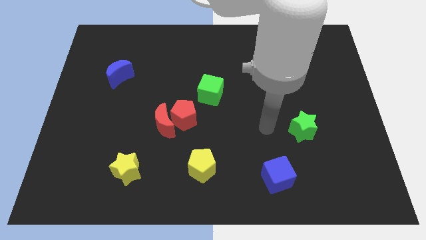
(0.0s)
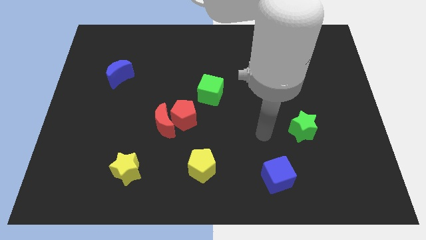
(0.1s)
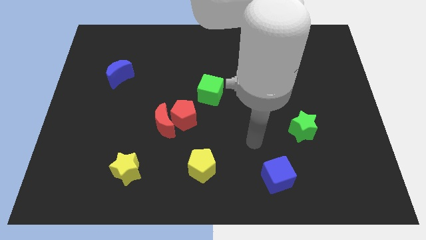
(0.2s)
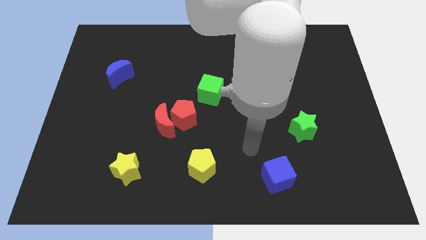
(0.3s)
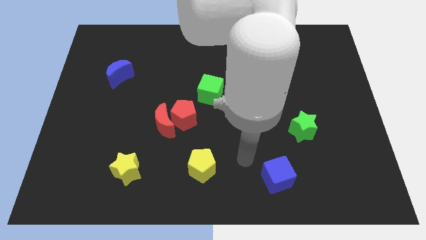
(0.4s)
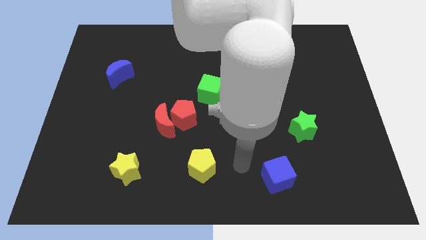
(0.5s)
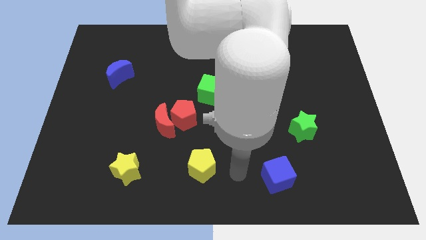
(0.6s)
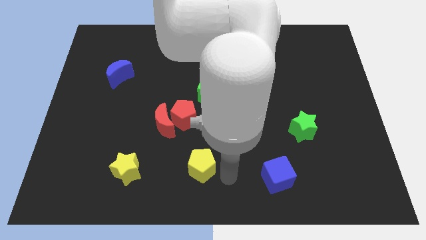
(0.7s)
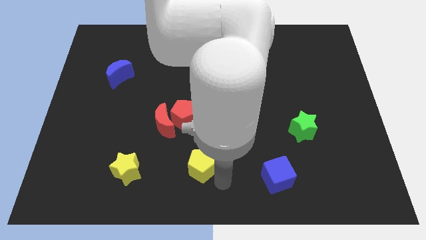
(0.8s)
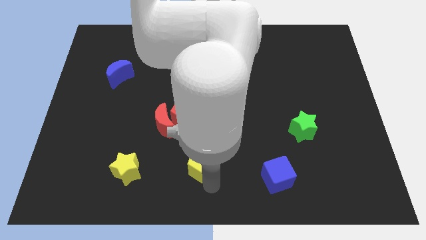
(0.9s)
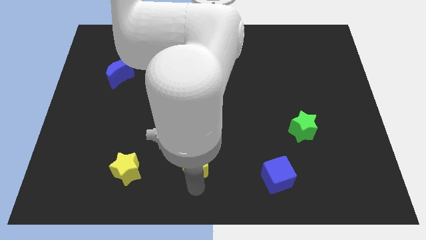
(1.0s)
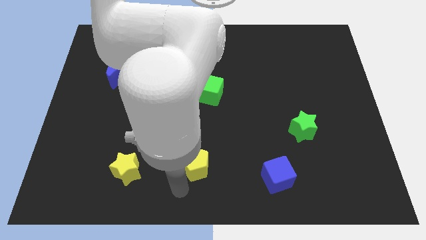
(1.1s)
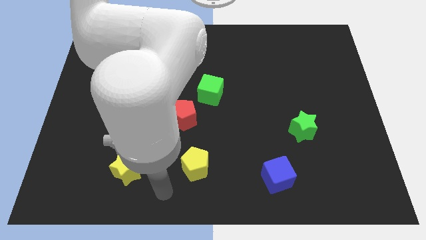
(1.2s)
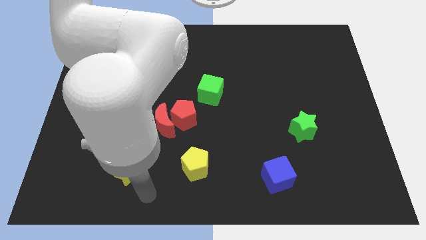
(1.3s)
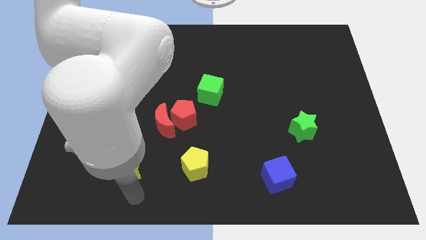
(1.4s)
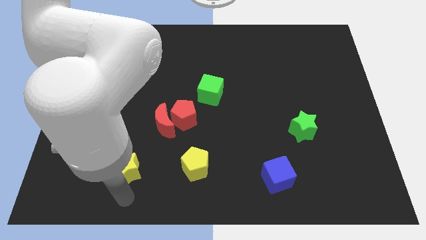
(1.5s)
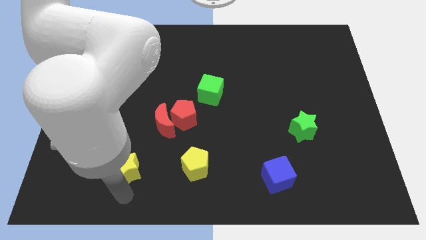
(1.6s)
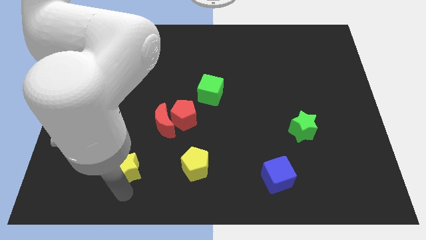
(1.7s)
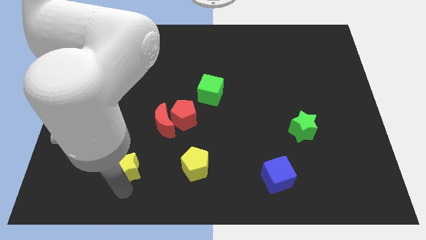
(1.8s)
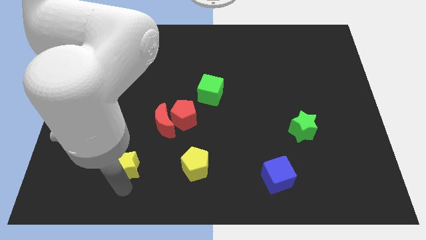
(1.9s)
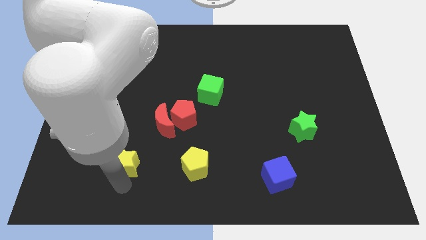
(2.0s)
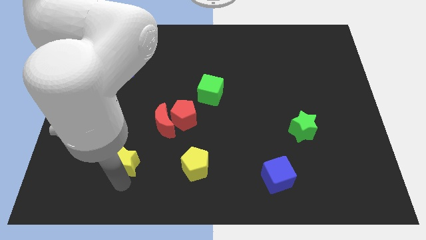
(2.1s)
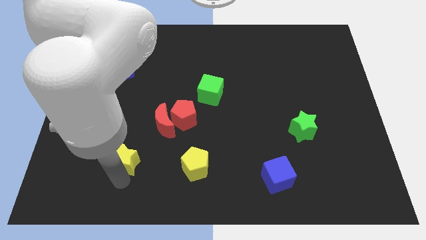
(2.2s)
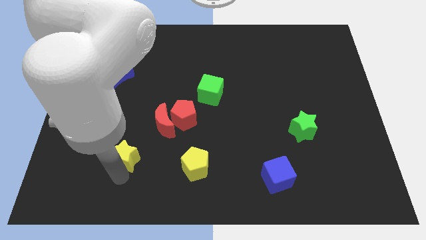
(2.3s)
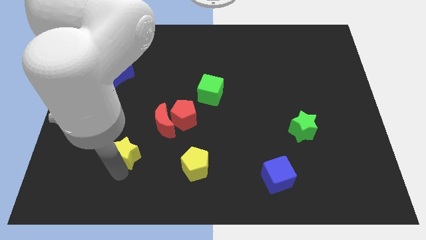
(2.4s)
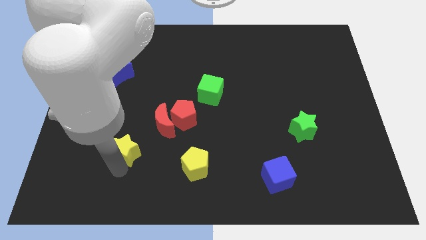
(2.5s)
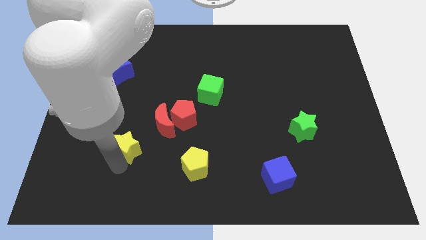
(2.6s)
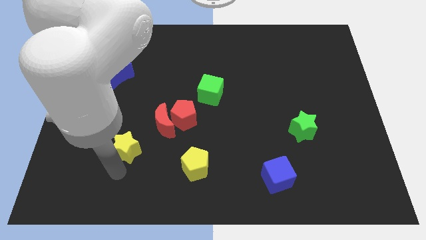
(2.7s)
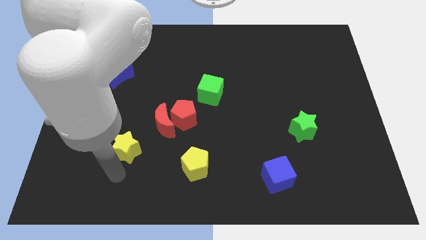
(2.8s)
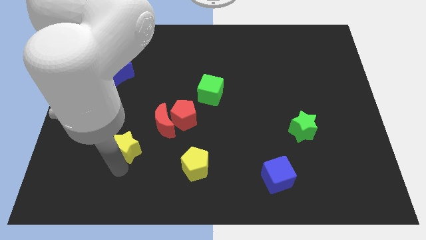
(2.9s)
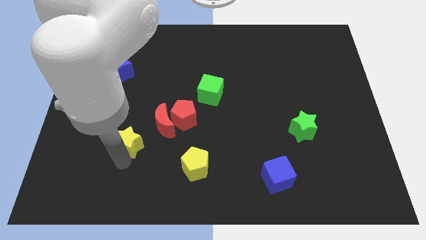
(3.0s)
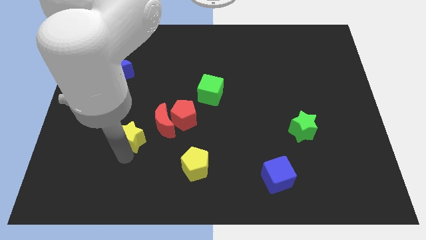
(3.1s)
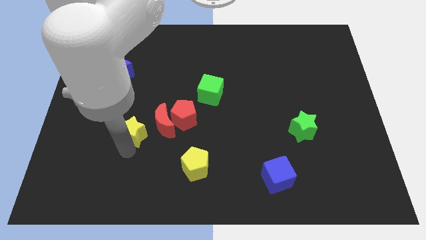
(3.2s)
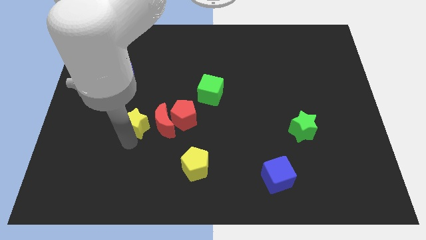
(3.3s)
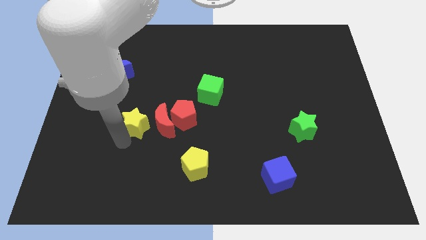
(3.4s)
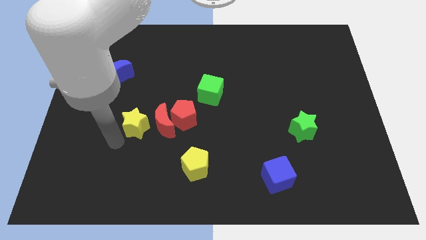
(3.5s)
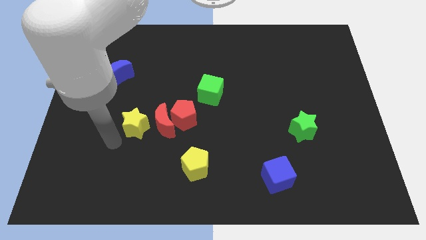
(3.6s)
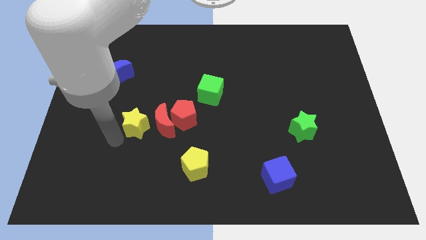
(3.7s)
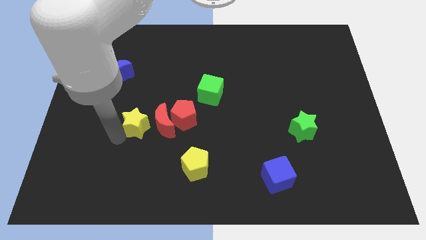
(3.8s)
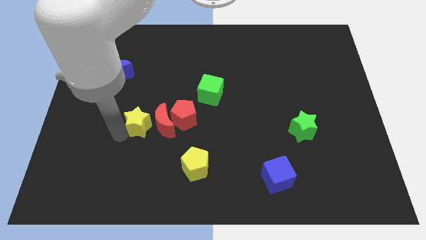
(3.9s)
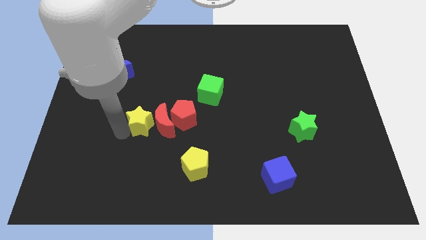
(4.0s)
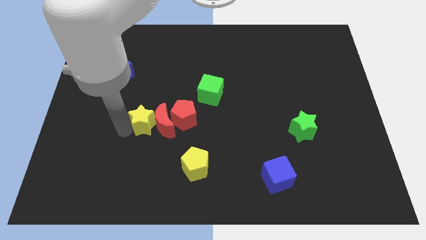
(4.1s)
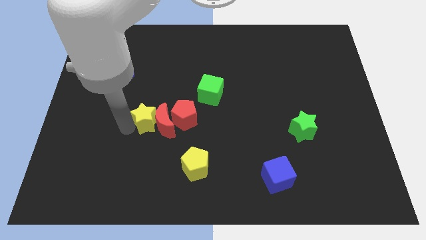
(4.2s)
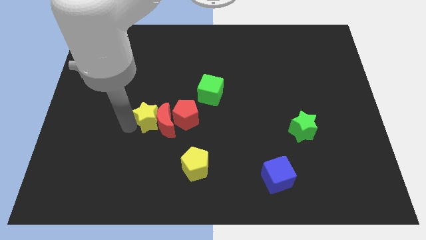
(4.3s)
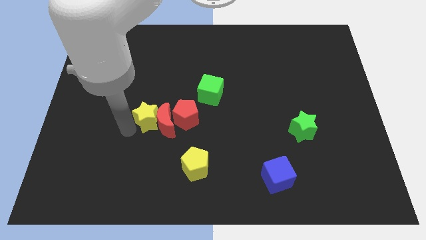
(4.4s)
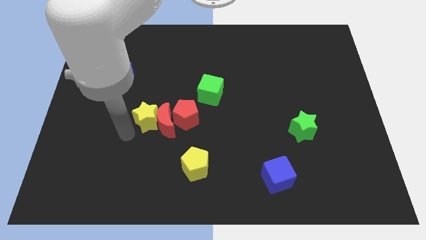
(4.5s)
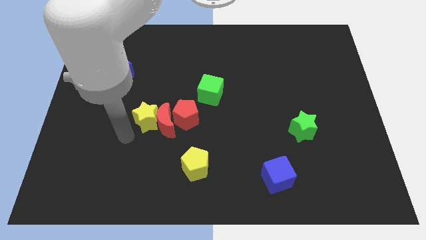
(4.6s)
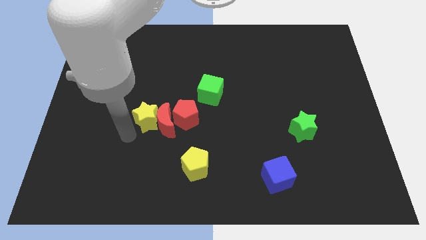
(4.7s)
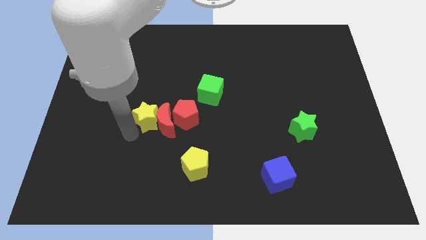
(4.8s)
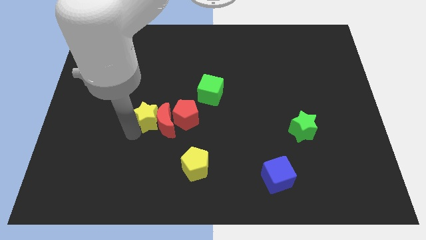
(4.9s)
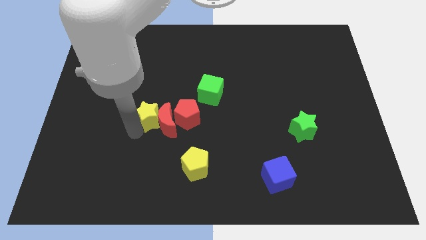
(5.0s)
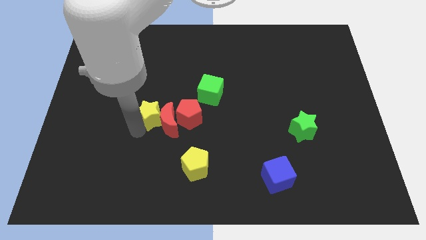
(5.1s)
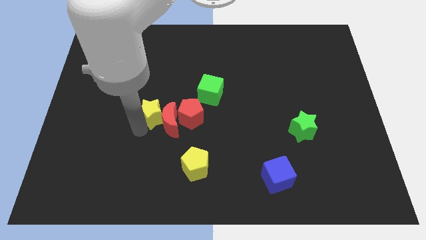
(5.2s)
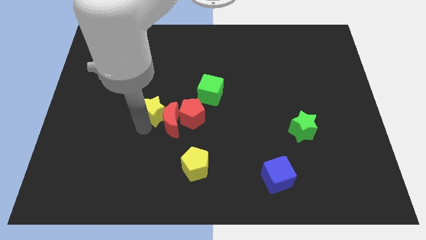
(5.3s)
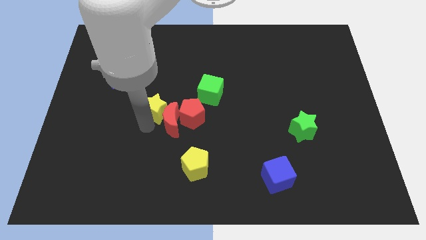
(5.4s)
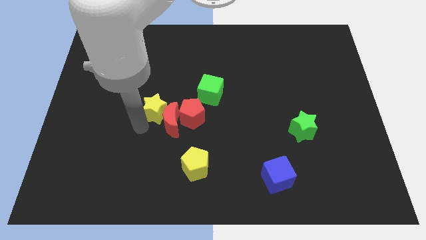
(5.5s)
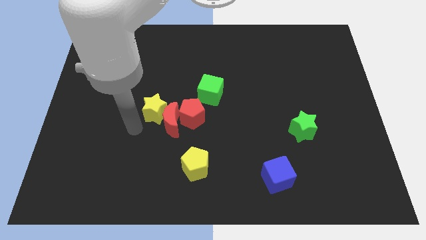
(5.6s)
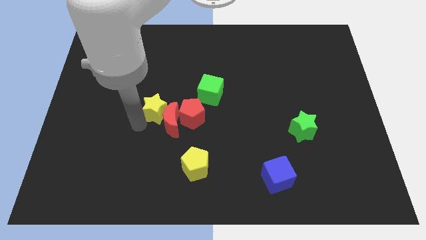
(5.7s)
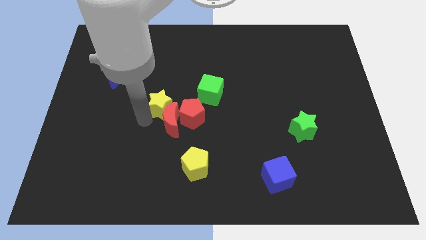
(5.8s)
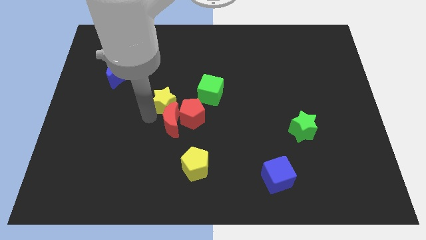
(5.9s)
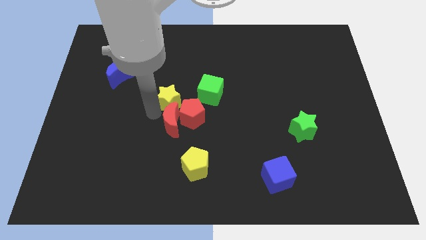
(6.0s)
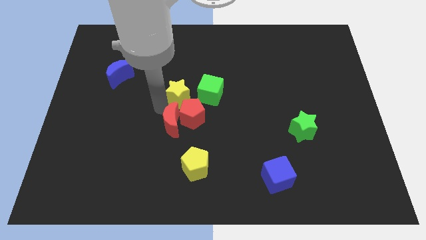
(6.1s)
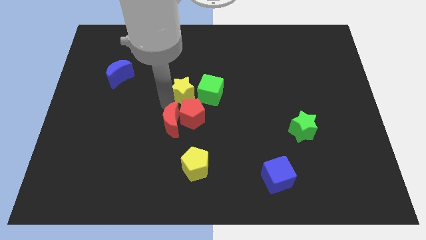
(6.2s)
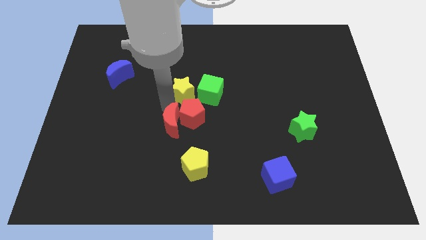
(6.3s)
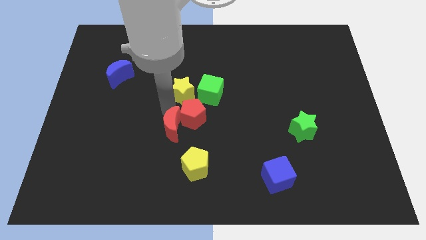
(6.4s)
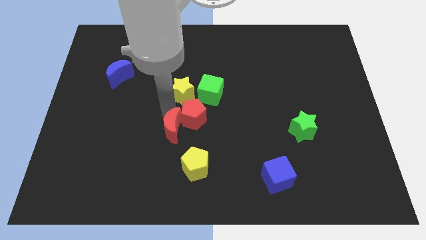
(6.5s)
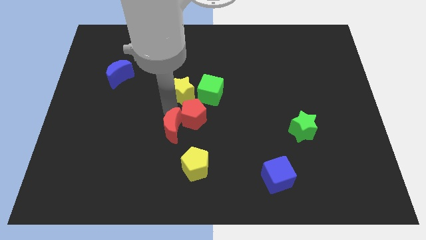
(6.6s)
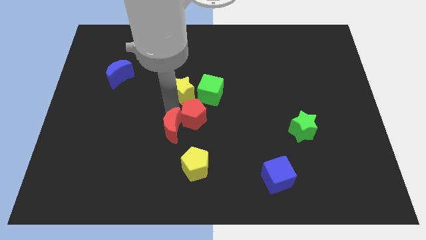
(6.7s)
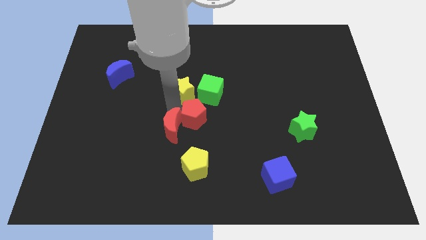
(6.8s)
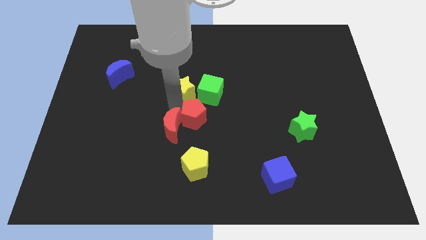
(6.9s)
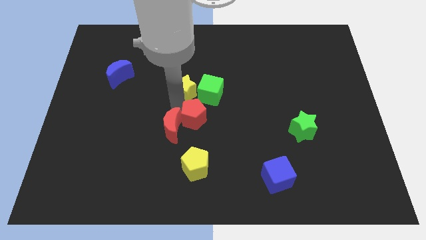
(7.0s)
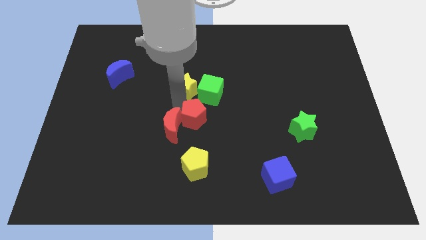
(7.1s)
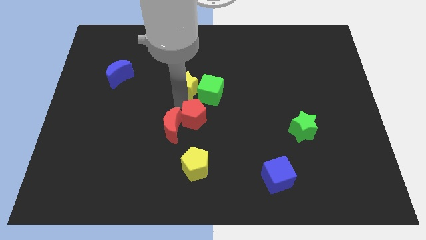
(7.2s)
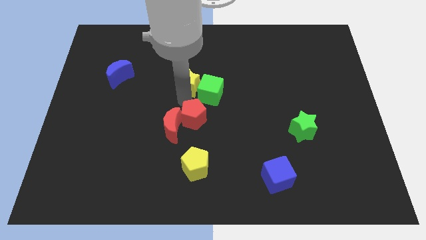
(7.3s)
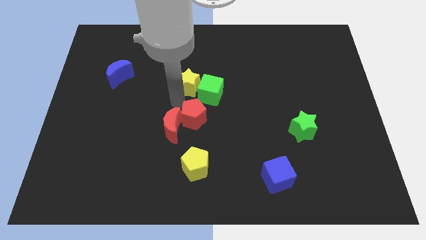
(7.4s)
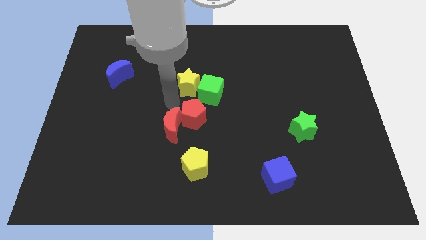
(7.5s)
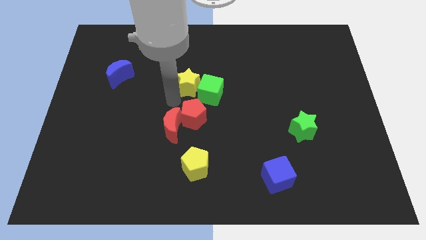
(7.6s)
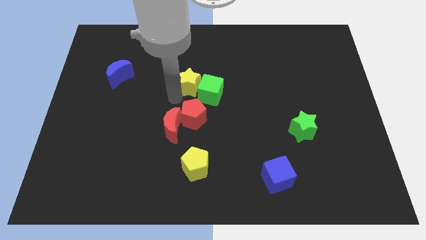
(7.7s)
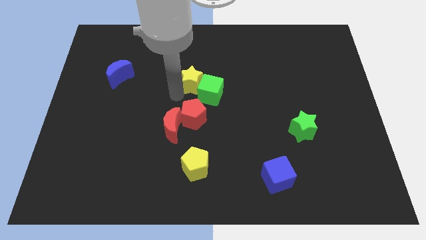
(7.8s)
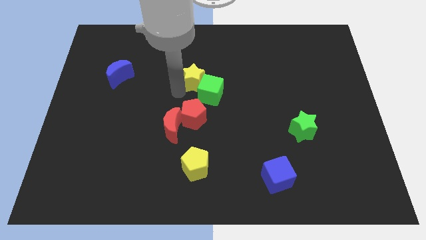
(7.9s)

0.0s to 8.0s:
push the yellow star to the top side of the green cube

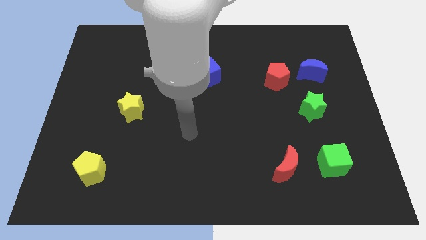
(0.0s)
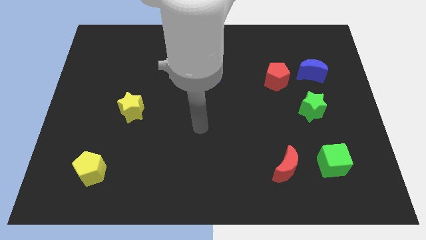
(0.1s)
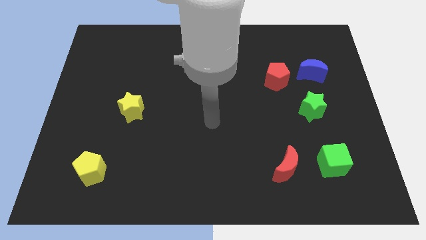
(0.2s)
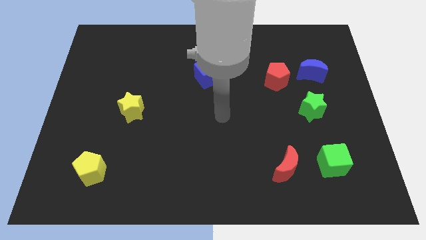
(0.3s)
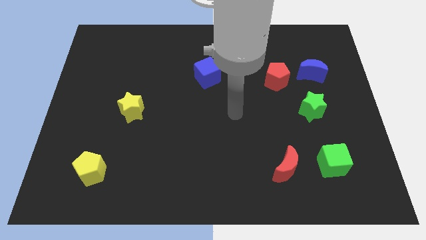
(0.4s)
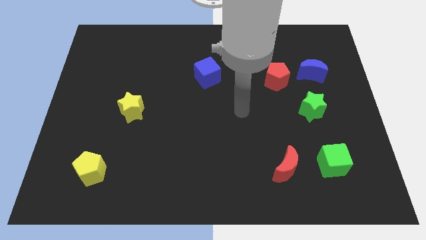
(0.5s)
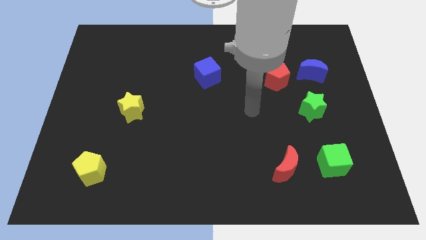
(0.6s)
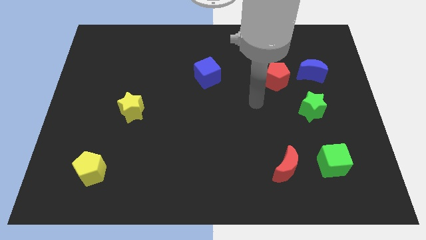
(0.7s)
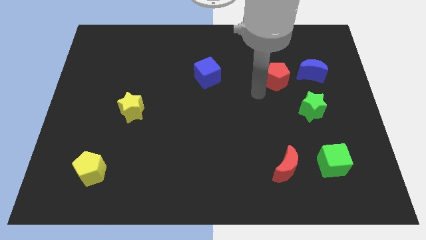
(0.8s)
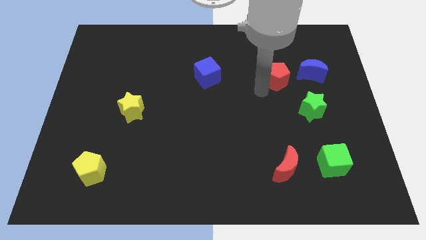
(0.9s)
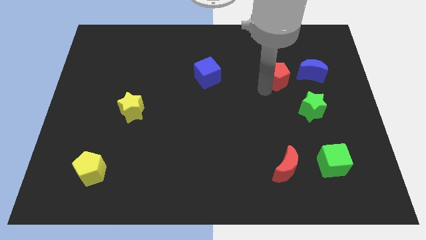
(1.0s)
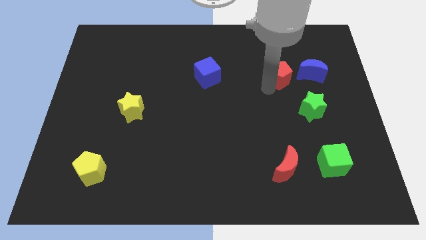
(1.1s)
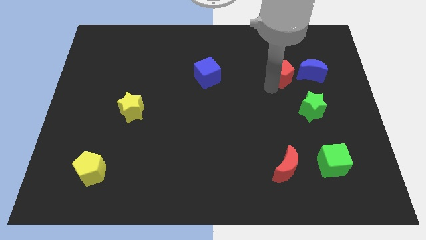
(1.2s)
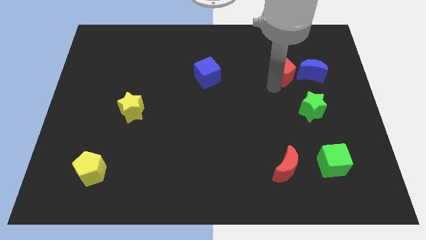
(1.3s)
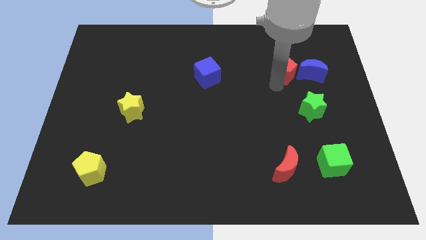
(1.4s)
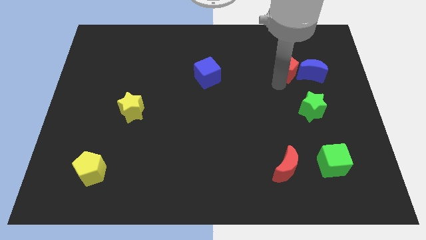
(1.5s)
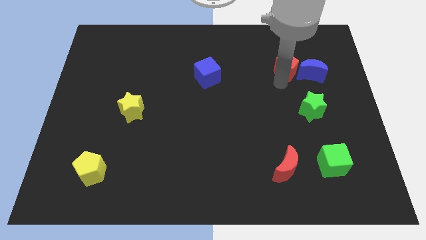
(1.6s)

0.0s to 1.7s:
put the red pentagon above the green star
